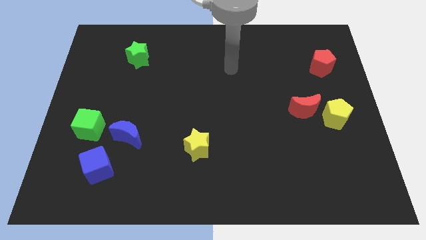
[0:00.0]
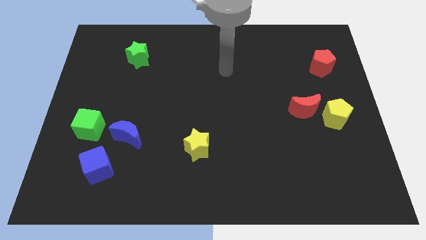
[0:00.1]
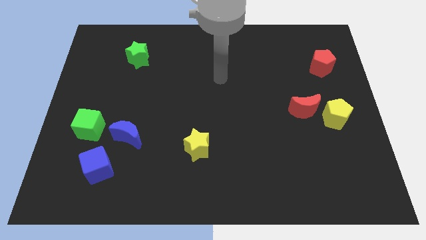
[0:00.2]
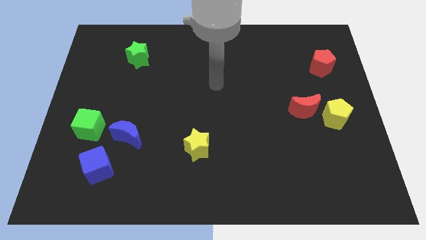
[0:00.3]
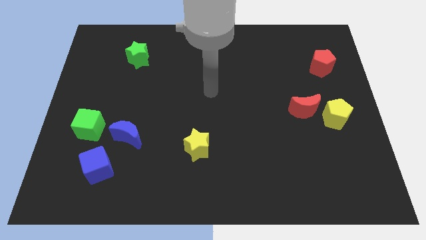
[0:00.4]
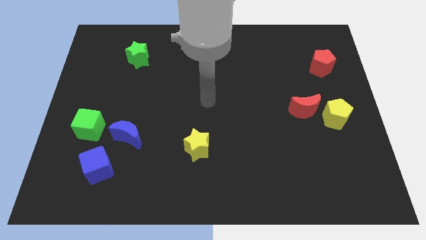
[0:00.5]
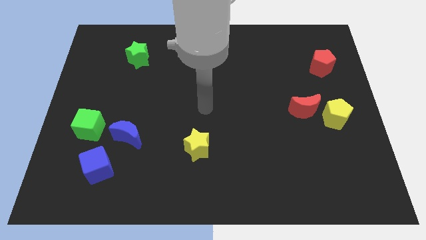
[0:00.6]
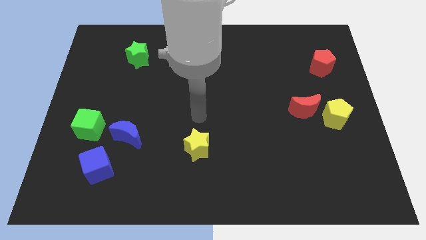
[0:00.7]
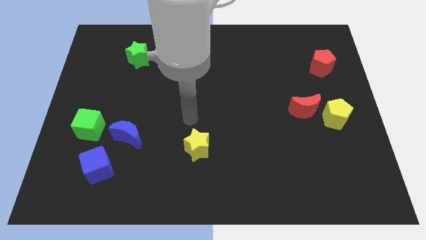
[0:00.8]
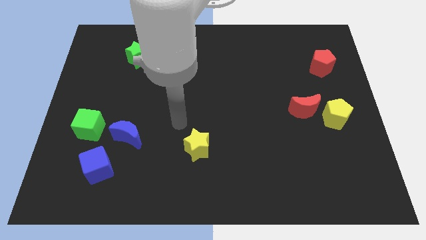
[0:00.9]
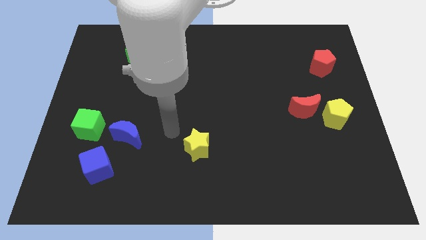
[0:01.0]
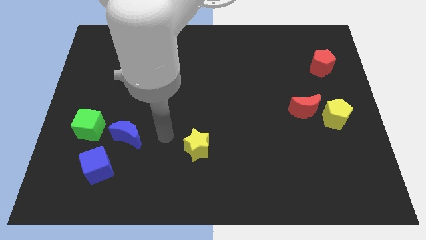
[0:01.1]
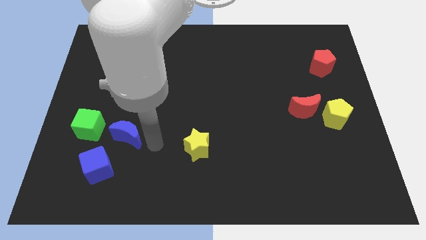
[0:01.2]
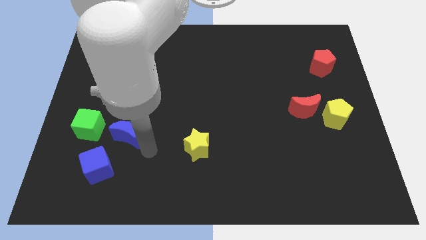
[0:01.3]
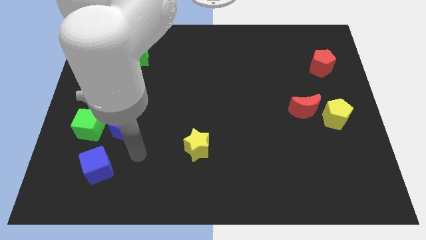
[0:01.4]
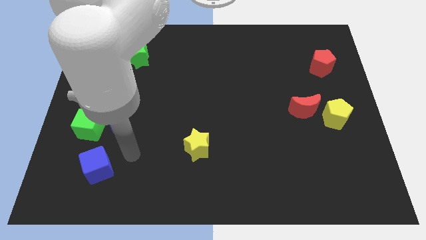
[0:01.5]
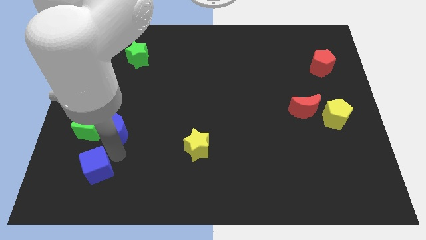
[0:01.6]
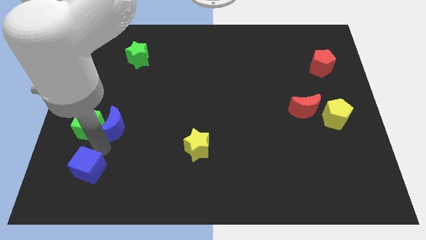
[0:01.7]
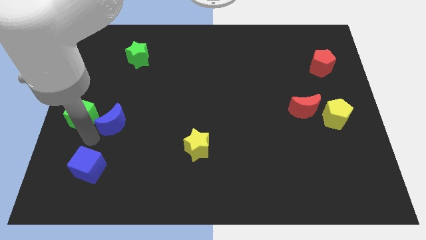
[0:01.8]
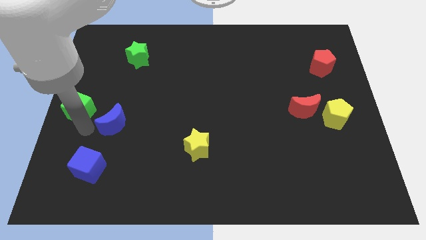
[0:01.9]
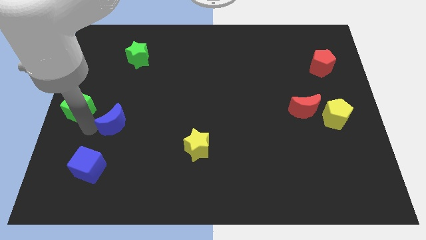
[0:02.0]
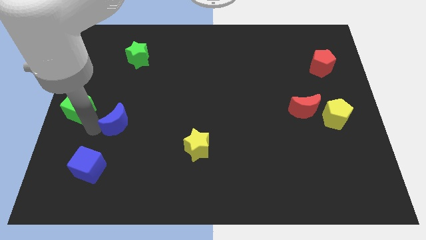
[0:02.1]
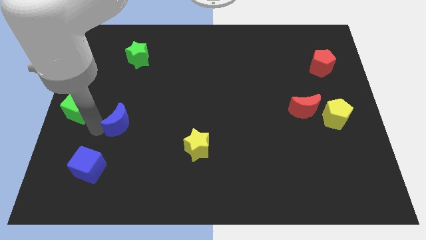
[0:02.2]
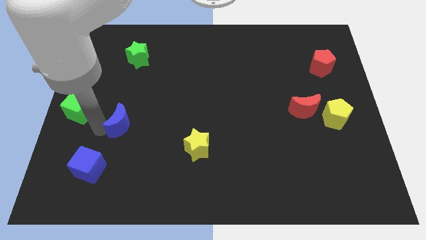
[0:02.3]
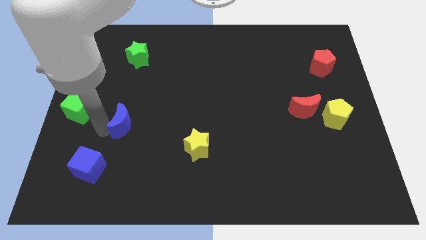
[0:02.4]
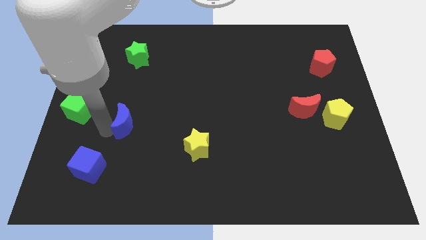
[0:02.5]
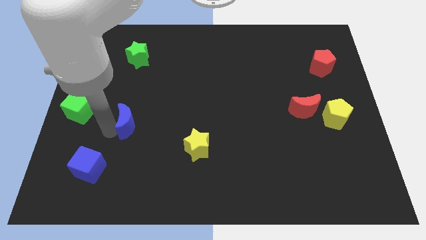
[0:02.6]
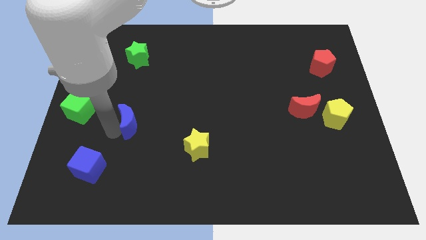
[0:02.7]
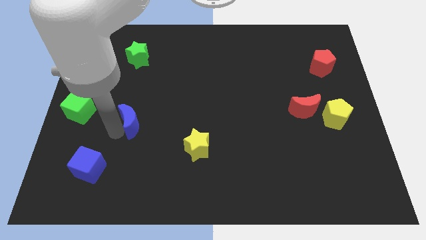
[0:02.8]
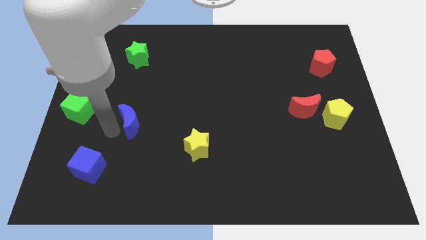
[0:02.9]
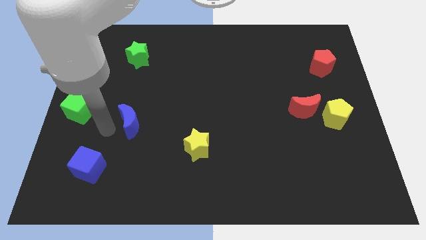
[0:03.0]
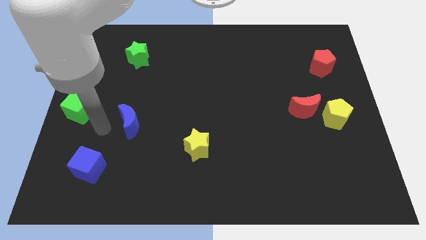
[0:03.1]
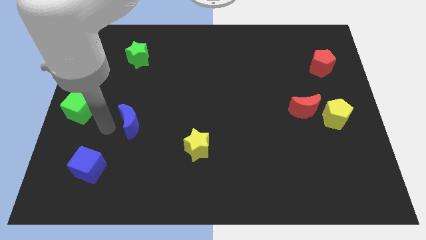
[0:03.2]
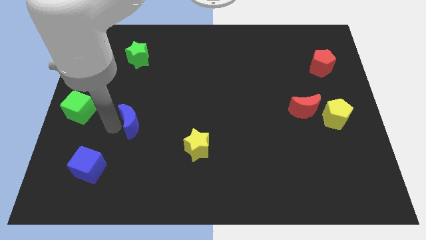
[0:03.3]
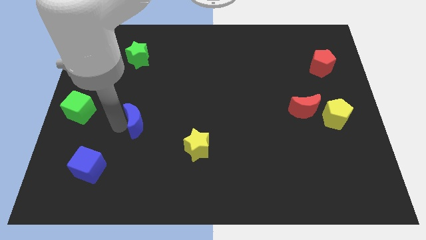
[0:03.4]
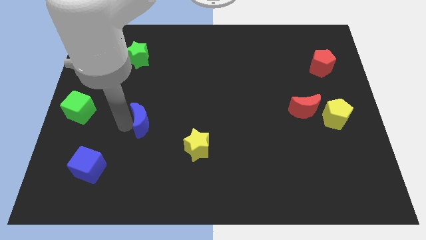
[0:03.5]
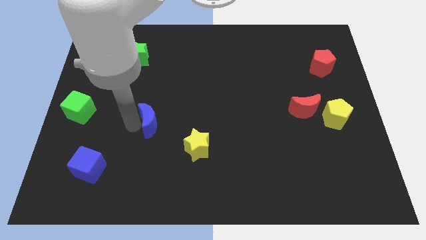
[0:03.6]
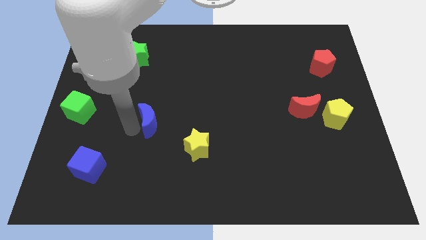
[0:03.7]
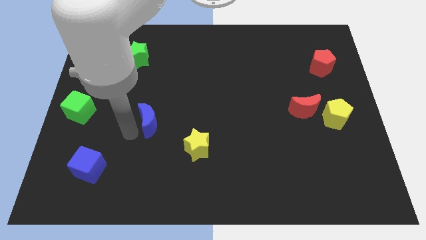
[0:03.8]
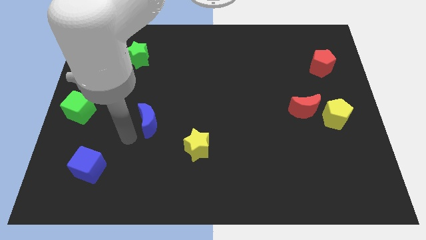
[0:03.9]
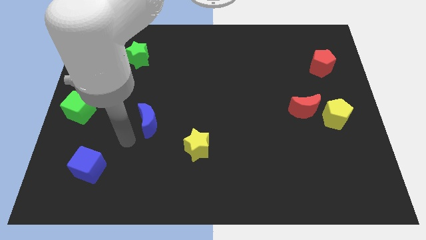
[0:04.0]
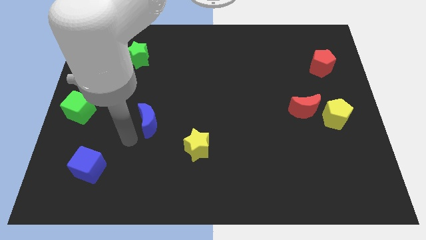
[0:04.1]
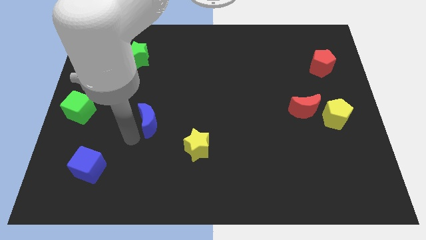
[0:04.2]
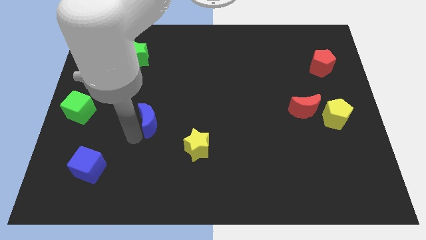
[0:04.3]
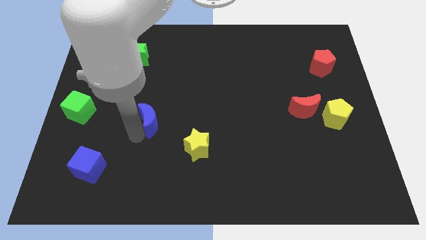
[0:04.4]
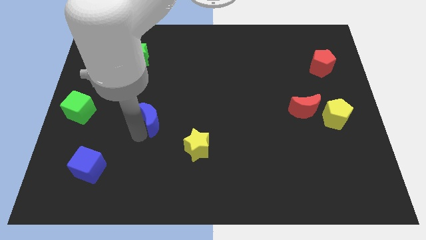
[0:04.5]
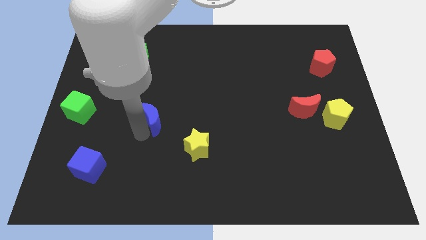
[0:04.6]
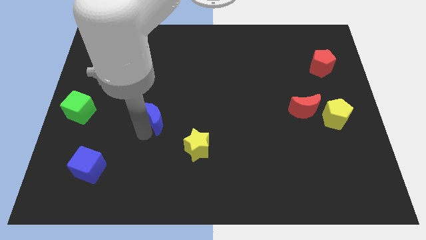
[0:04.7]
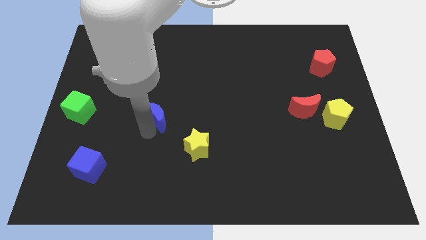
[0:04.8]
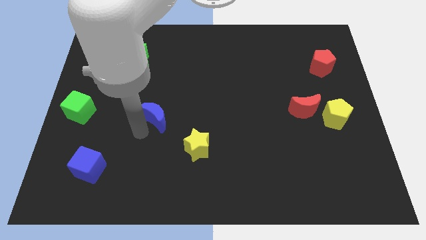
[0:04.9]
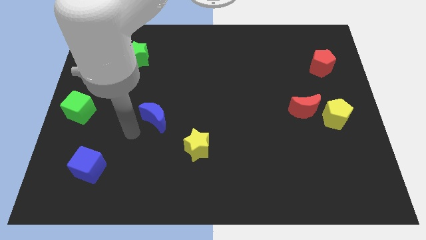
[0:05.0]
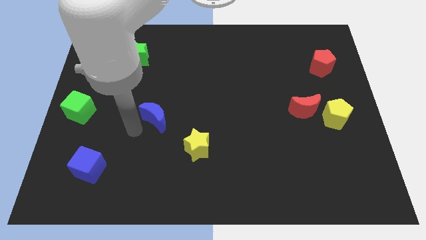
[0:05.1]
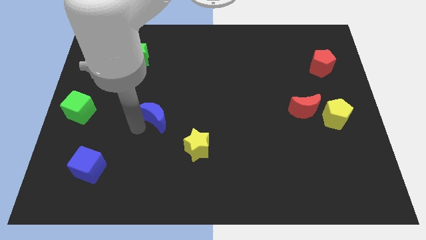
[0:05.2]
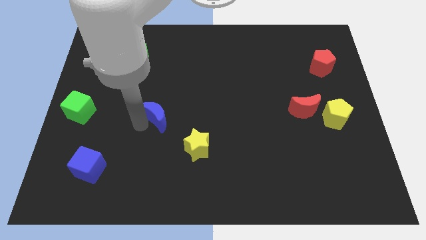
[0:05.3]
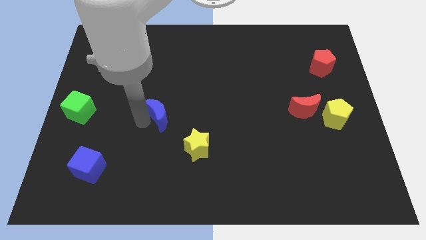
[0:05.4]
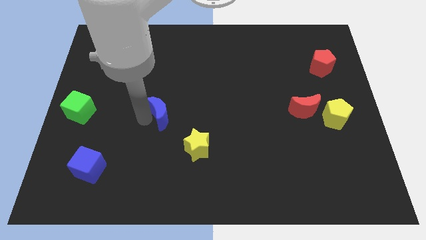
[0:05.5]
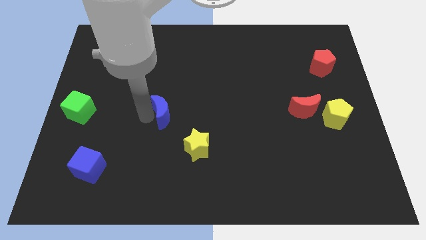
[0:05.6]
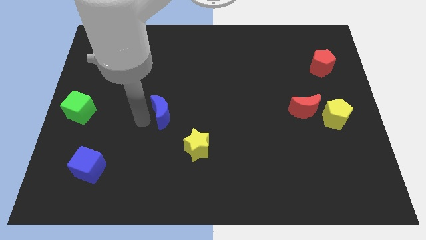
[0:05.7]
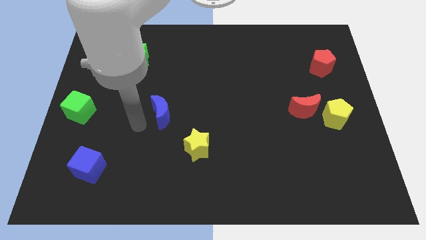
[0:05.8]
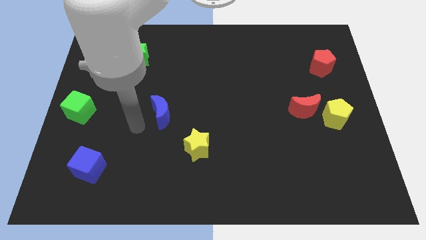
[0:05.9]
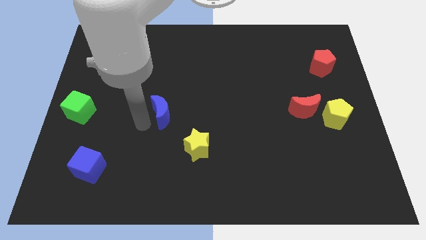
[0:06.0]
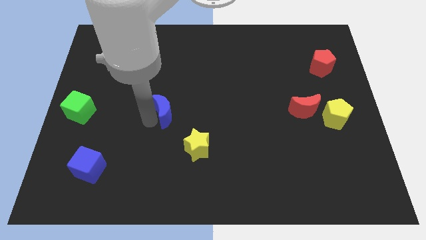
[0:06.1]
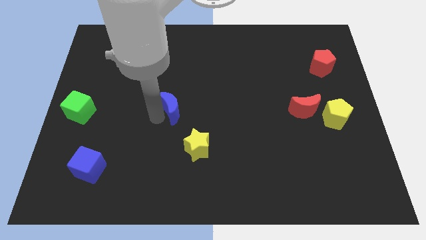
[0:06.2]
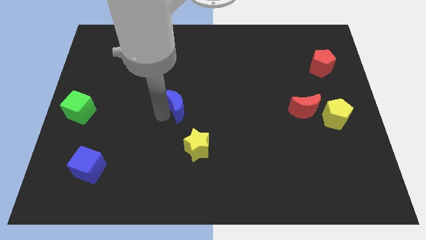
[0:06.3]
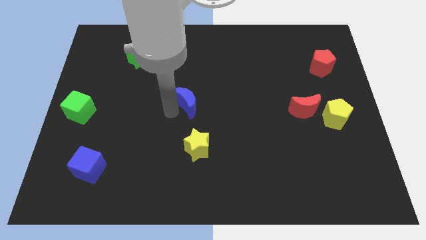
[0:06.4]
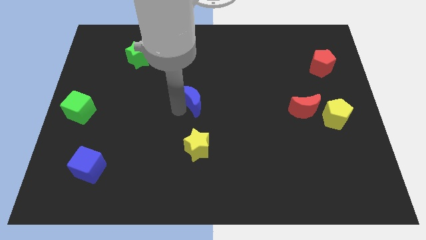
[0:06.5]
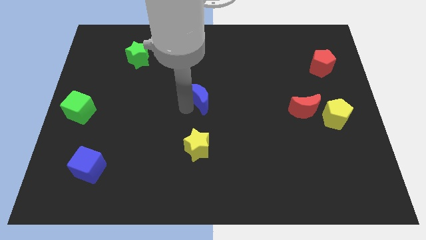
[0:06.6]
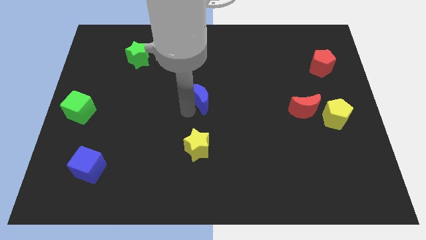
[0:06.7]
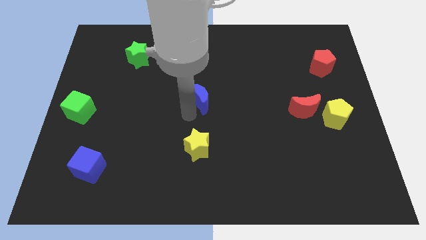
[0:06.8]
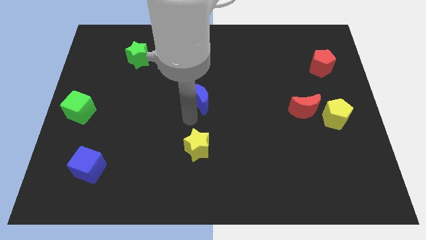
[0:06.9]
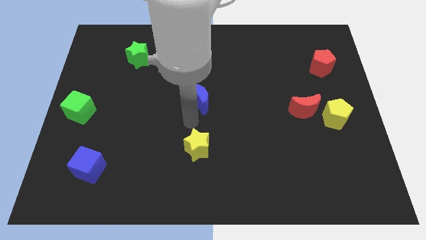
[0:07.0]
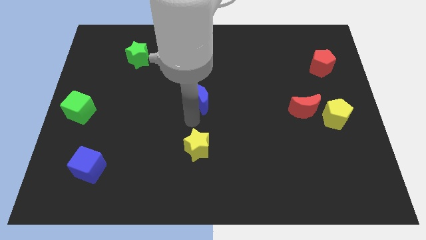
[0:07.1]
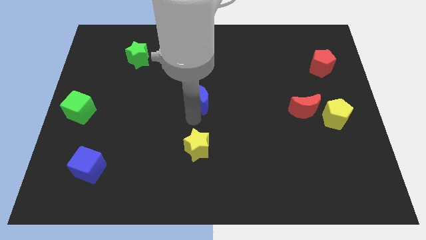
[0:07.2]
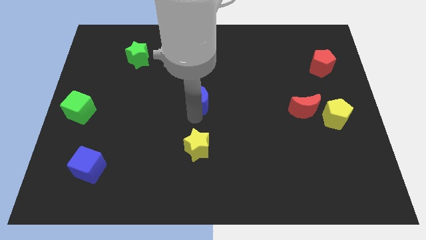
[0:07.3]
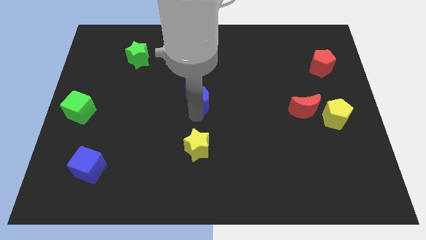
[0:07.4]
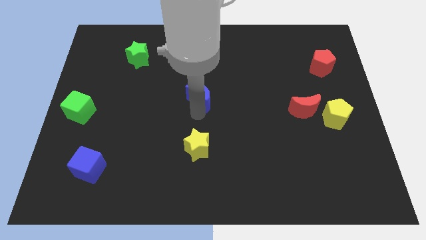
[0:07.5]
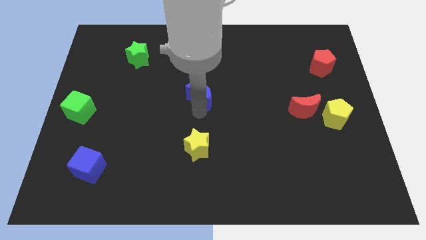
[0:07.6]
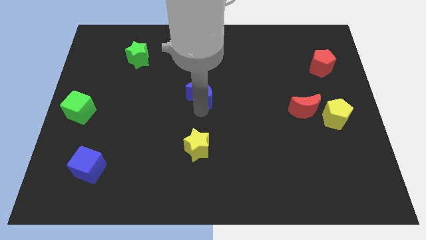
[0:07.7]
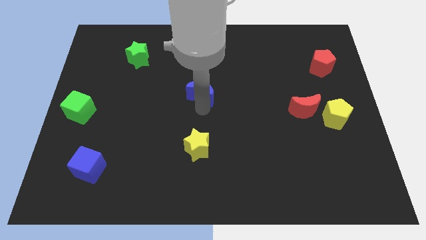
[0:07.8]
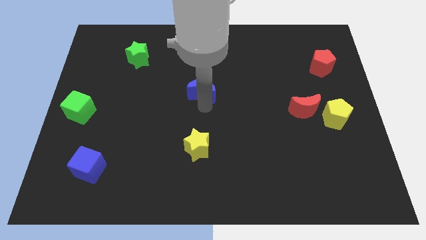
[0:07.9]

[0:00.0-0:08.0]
move the blue moon upwards and right
